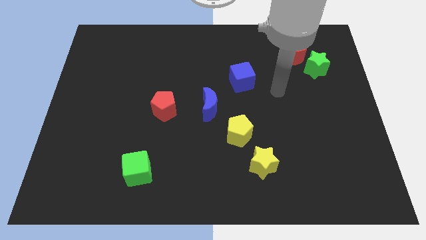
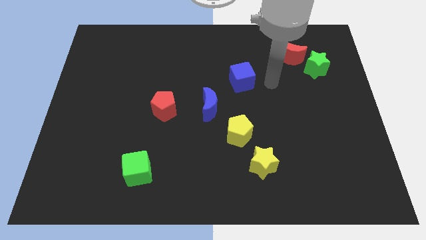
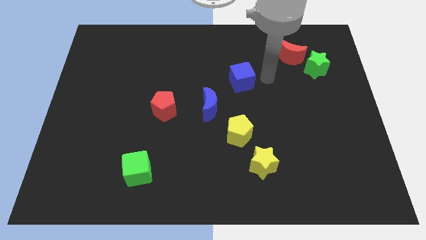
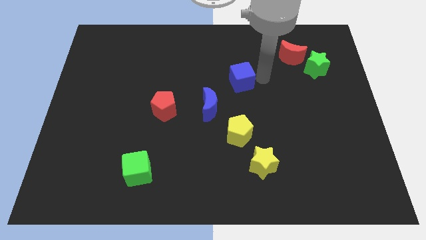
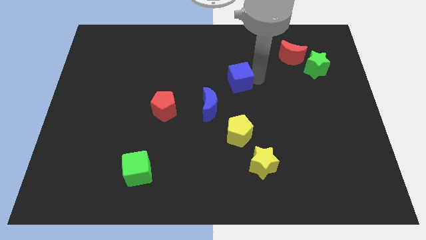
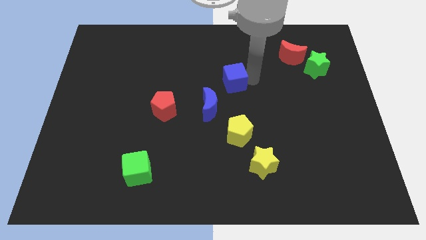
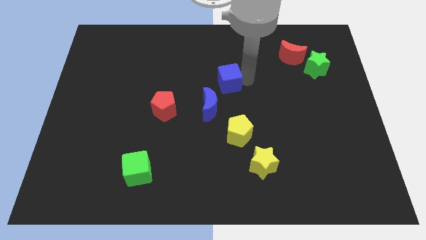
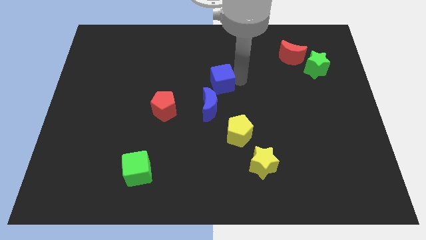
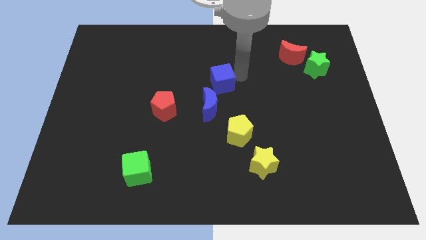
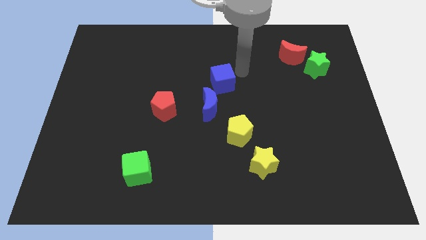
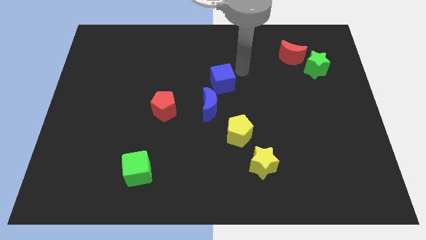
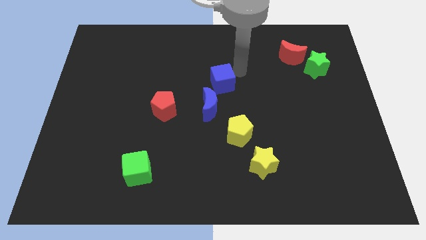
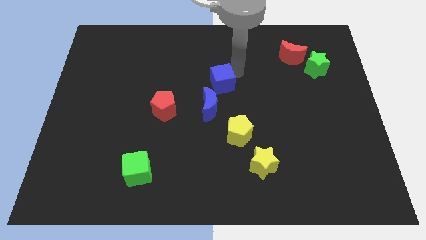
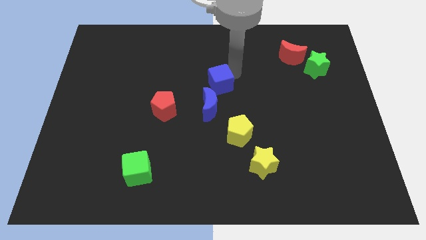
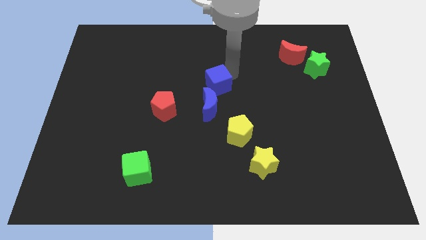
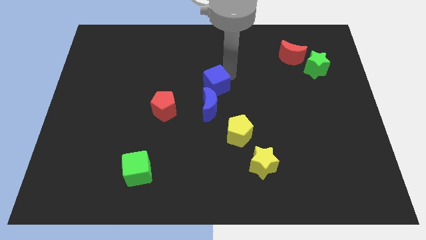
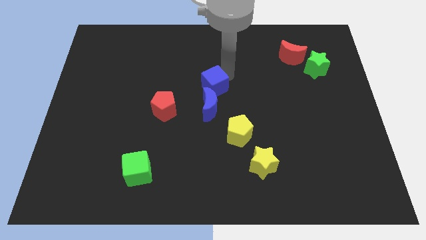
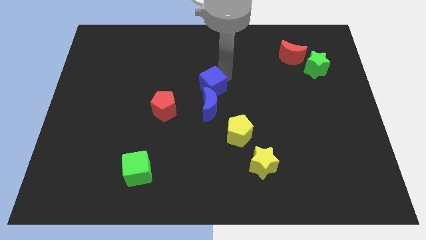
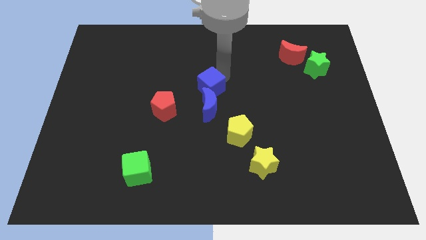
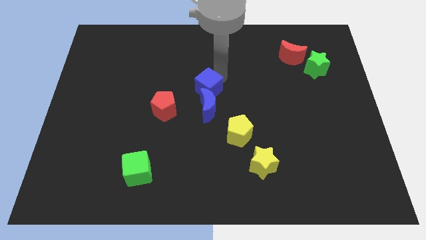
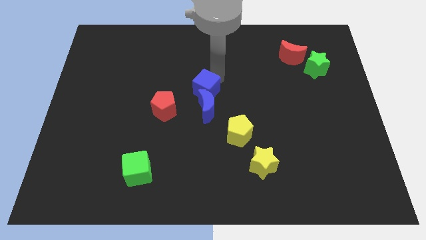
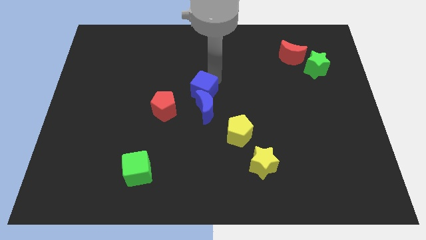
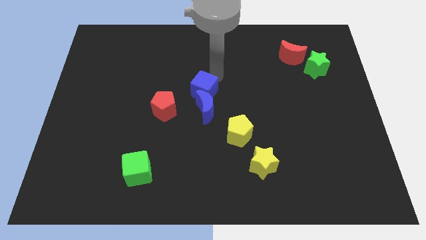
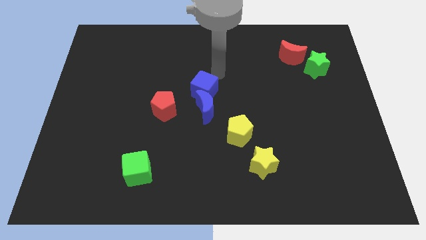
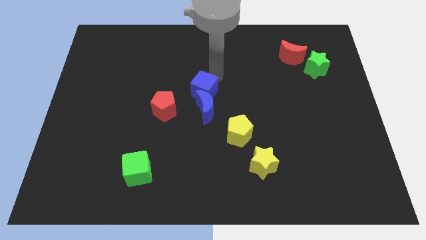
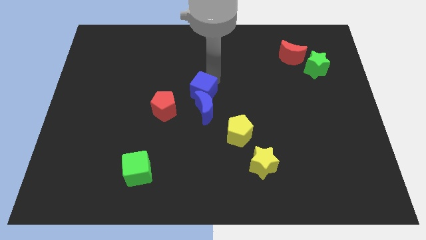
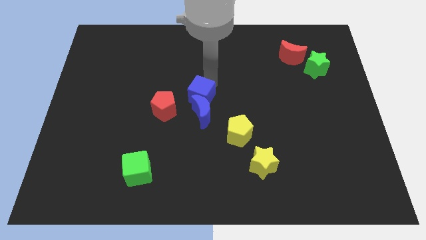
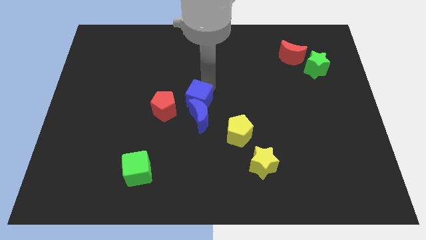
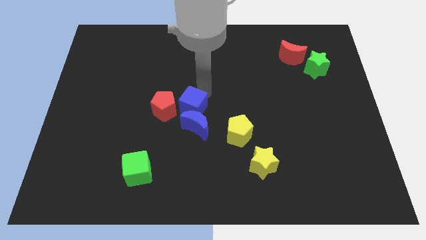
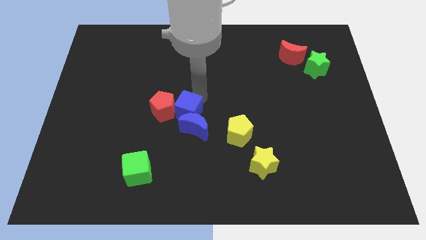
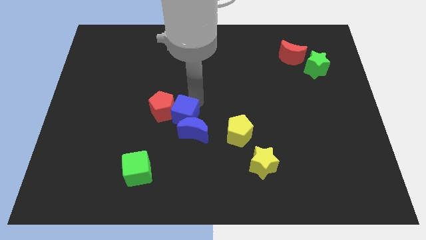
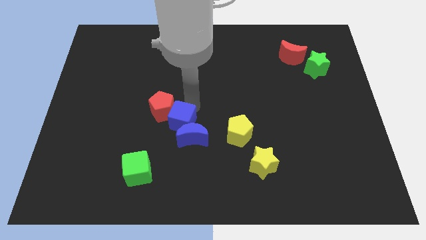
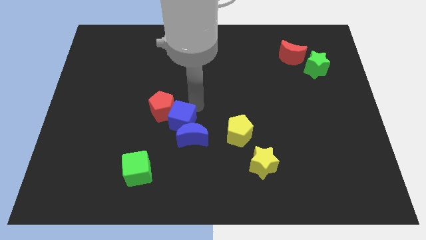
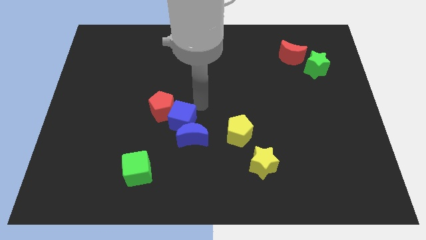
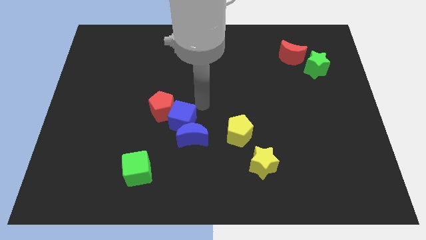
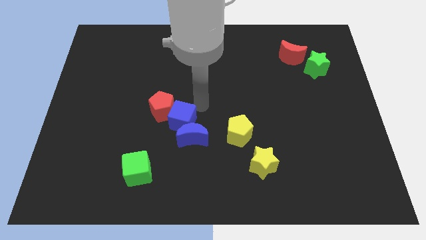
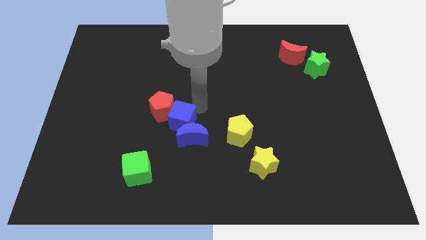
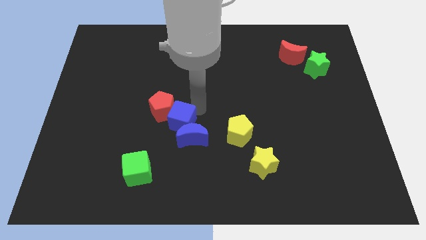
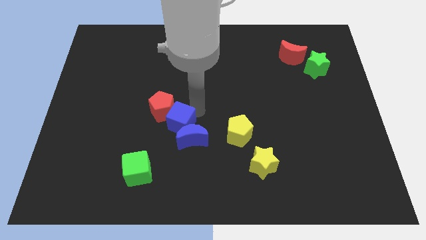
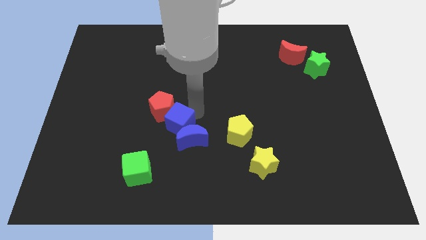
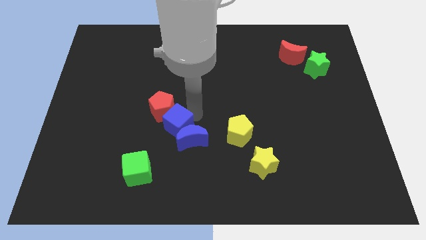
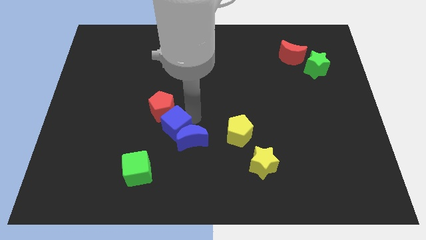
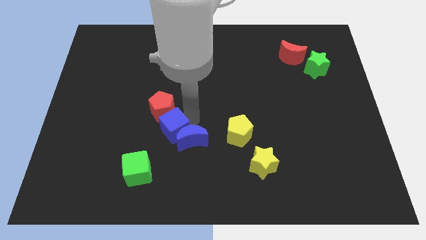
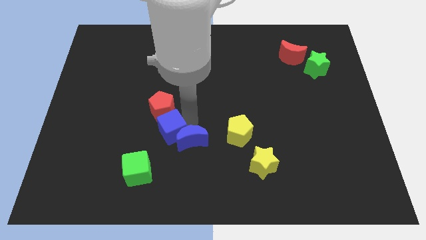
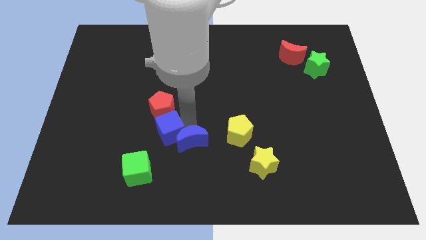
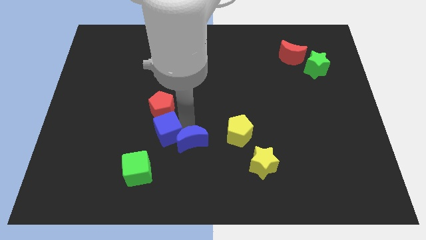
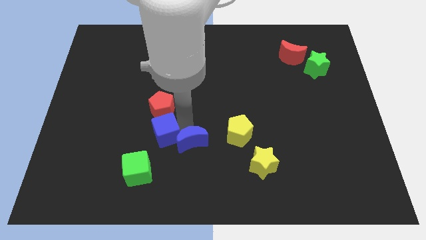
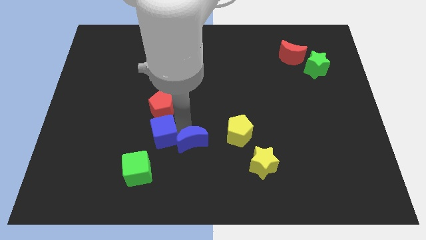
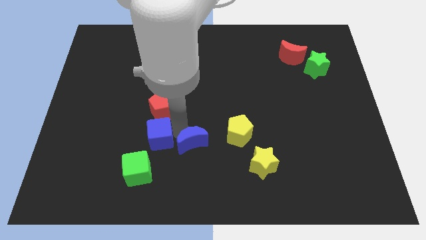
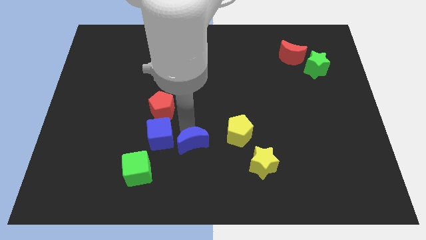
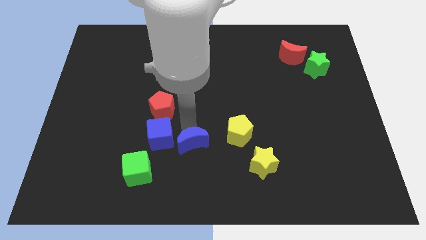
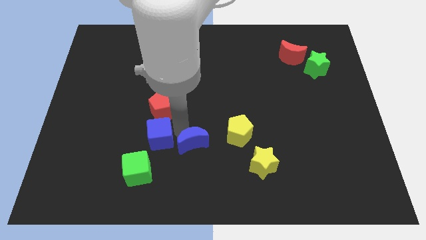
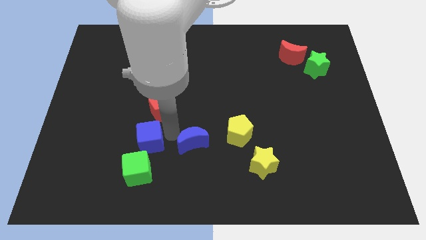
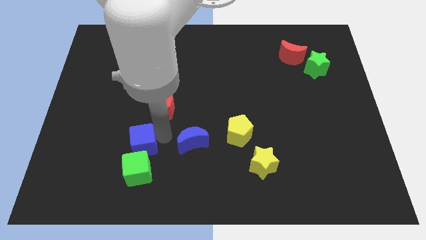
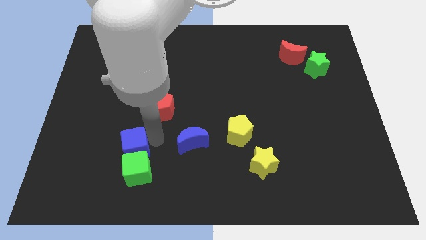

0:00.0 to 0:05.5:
push the blue cube to the top left side of the green cube

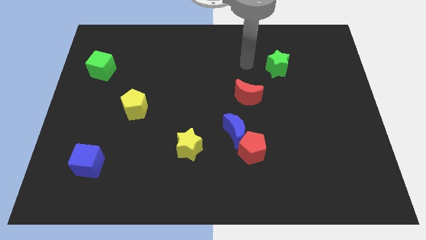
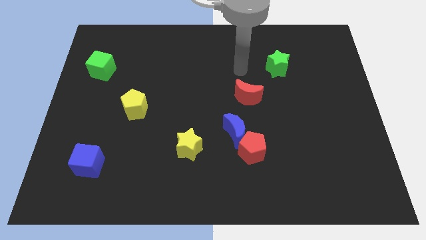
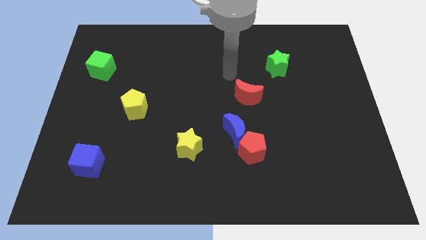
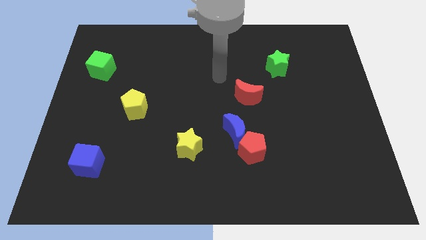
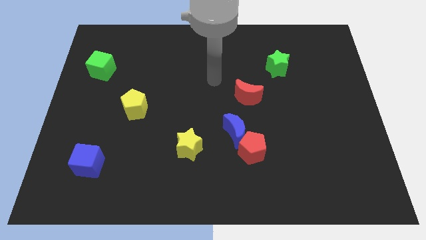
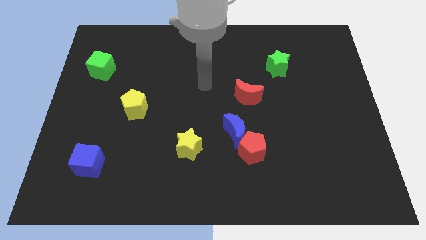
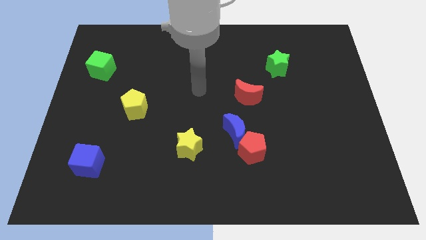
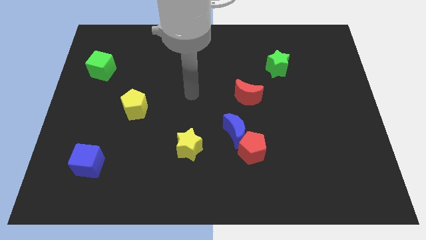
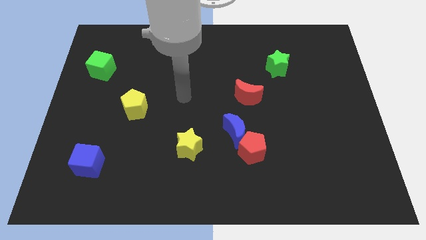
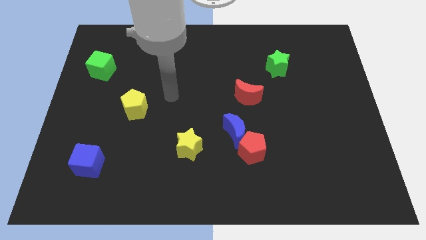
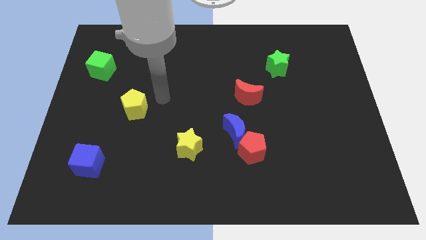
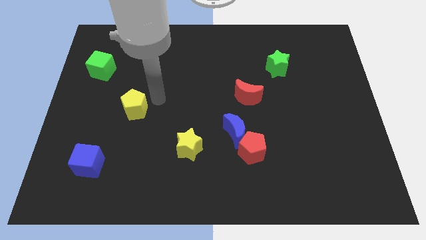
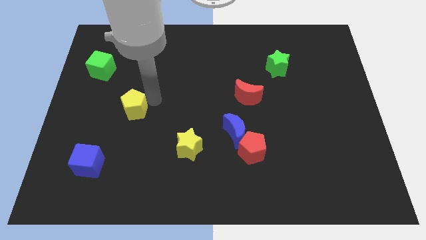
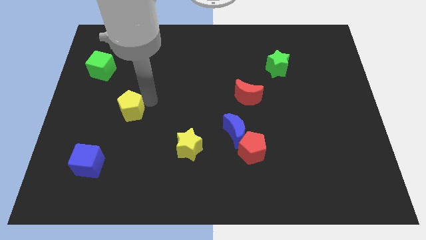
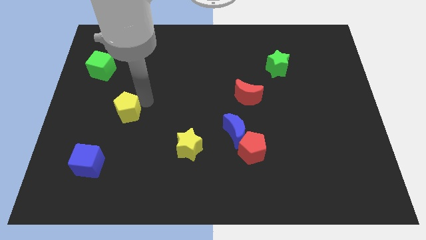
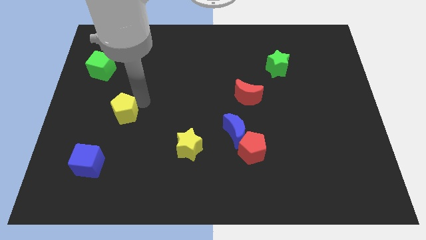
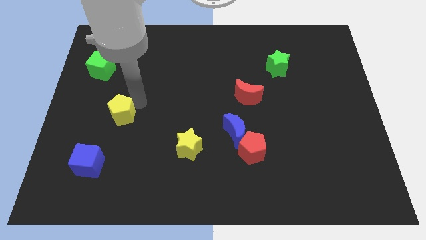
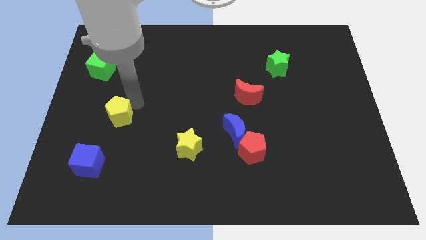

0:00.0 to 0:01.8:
move the yellow pentagon to the top of the blue cube
